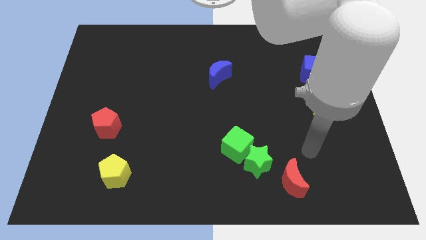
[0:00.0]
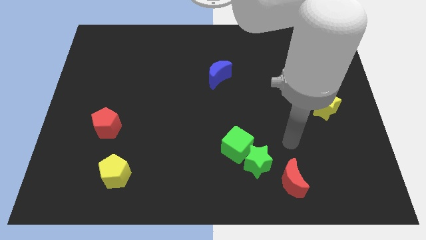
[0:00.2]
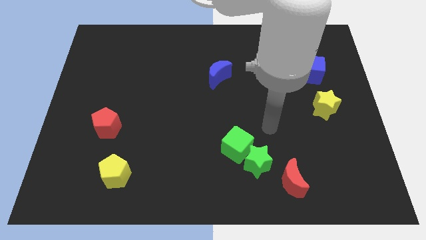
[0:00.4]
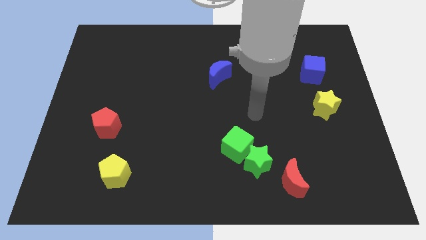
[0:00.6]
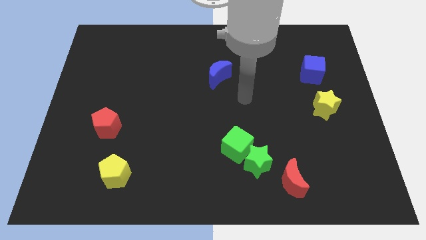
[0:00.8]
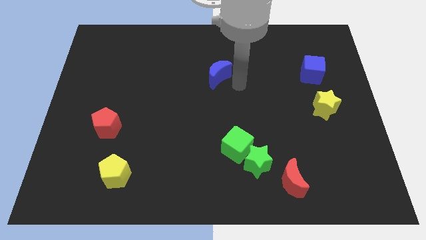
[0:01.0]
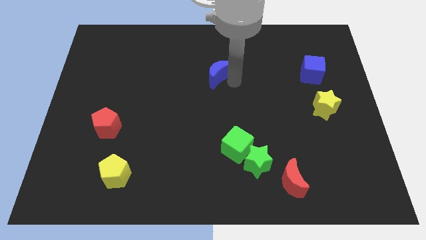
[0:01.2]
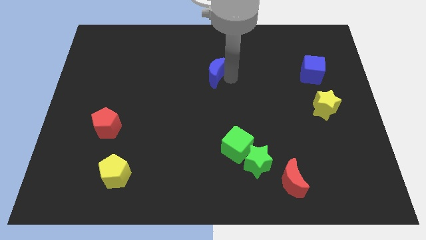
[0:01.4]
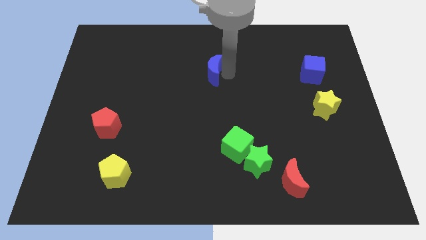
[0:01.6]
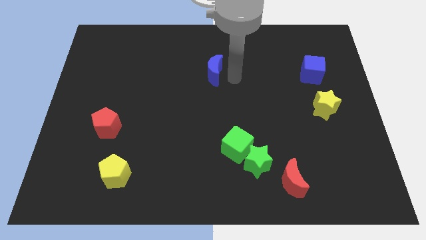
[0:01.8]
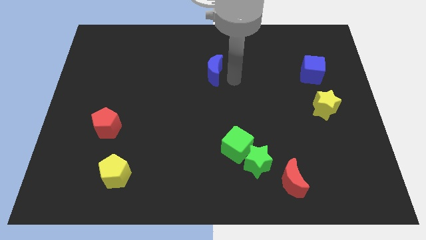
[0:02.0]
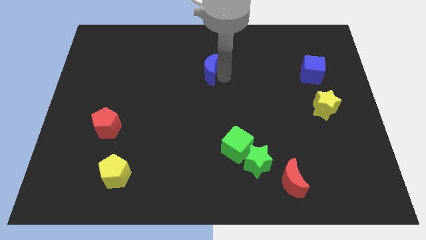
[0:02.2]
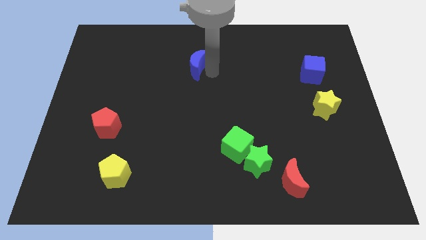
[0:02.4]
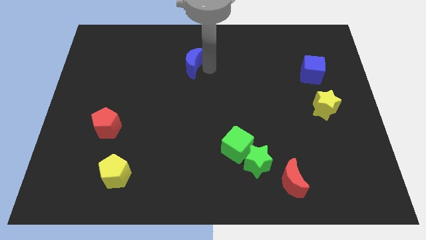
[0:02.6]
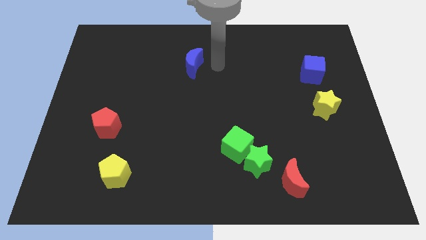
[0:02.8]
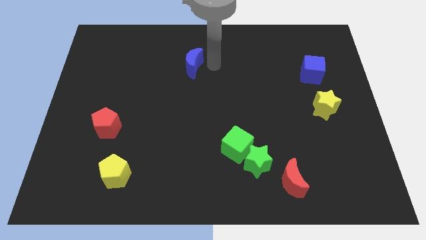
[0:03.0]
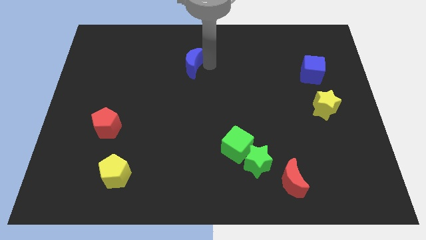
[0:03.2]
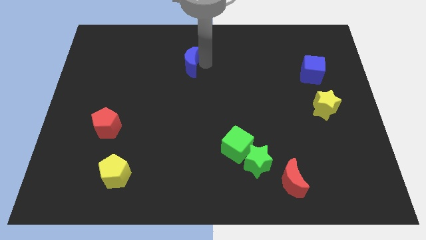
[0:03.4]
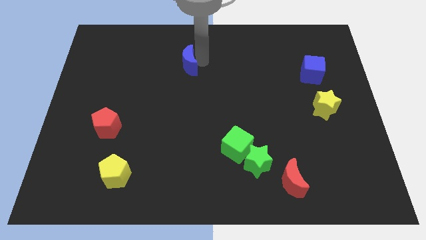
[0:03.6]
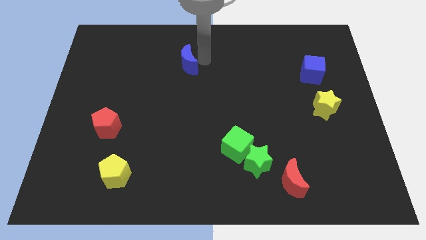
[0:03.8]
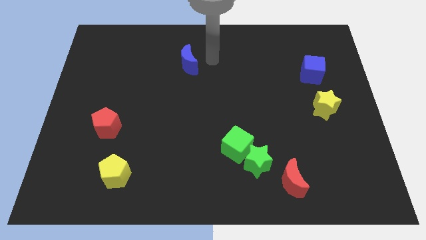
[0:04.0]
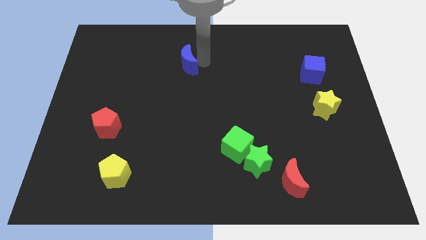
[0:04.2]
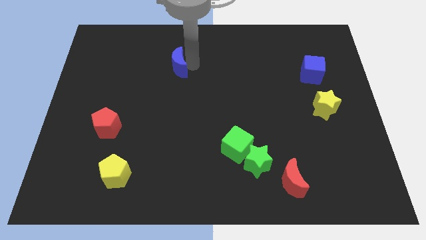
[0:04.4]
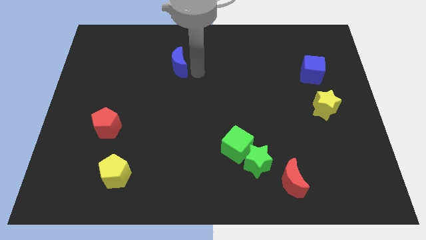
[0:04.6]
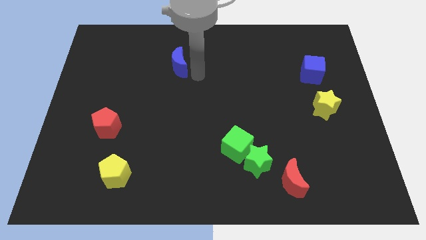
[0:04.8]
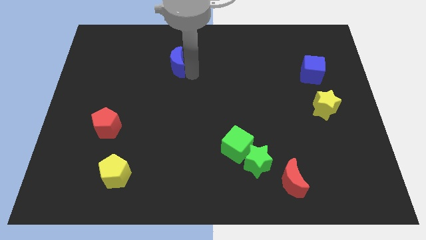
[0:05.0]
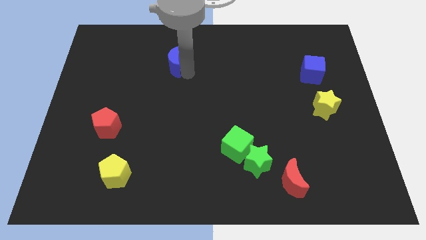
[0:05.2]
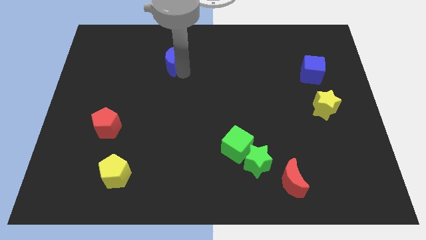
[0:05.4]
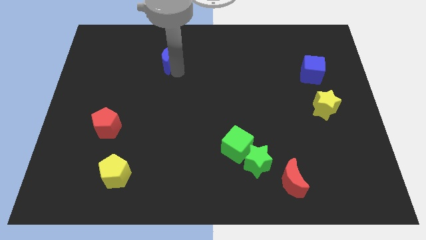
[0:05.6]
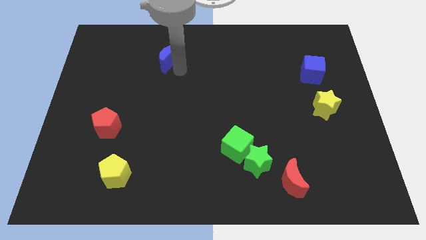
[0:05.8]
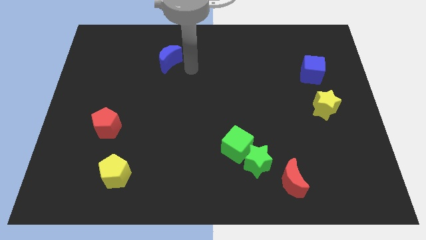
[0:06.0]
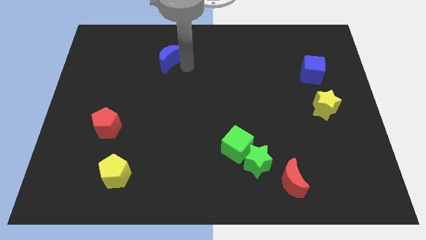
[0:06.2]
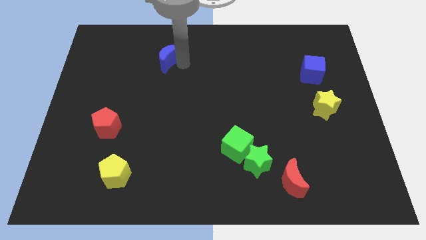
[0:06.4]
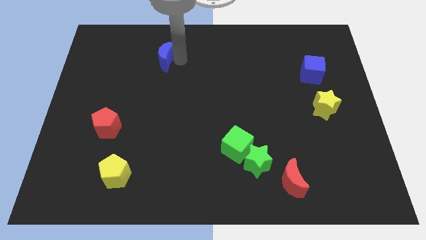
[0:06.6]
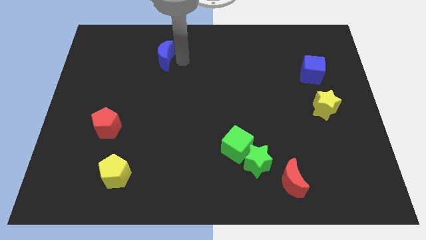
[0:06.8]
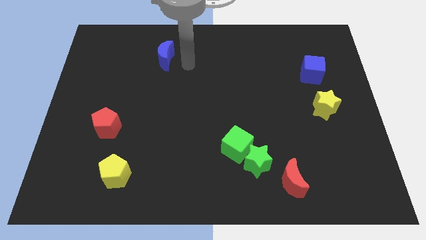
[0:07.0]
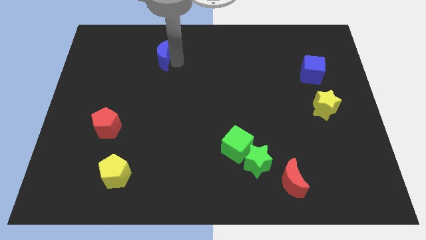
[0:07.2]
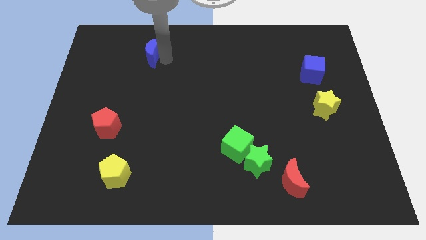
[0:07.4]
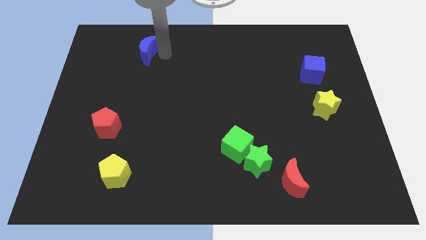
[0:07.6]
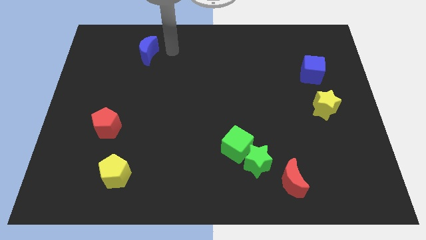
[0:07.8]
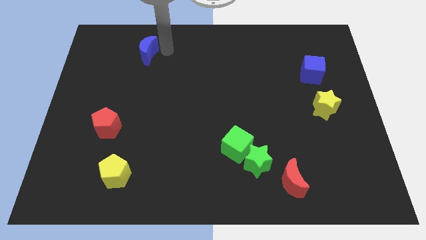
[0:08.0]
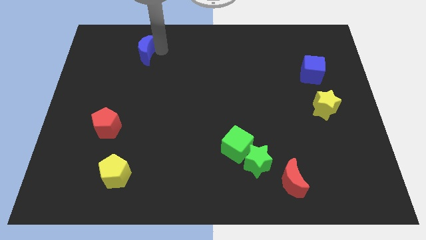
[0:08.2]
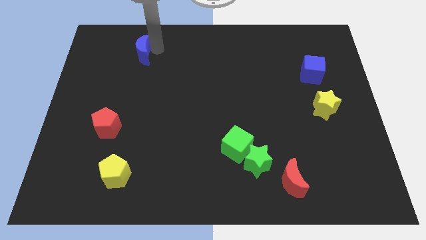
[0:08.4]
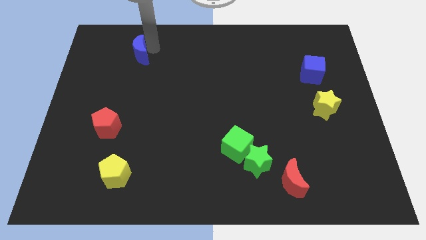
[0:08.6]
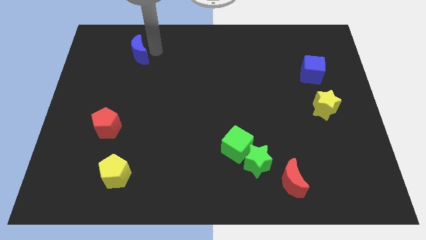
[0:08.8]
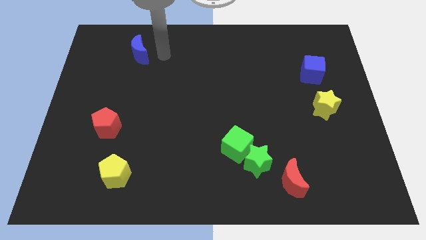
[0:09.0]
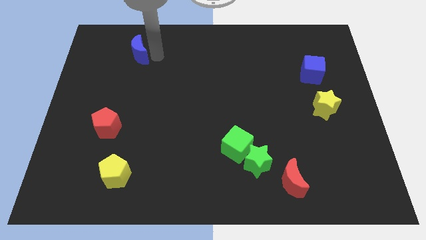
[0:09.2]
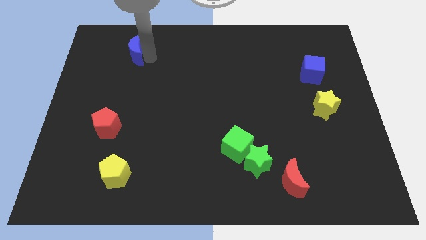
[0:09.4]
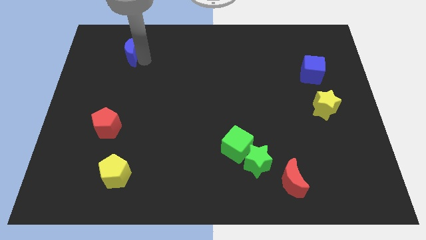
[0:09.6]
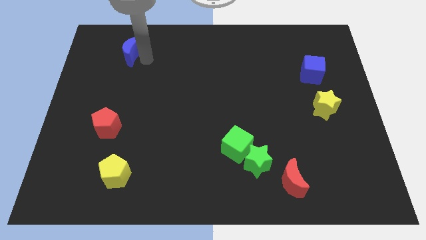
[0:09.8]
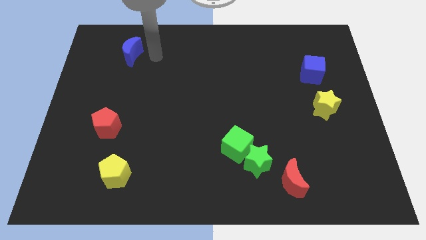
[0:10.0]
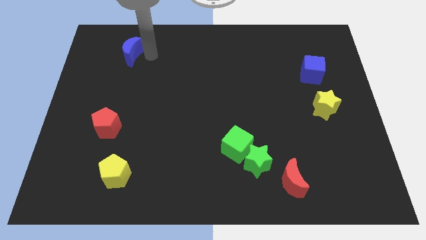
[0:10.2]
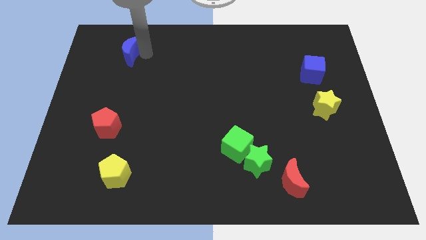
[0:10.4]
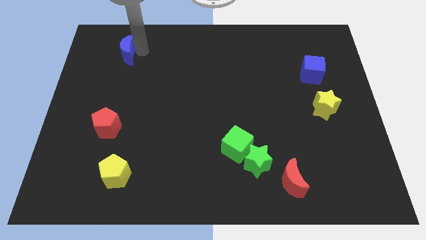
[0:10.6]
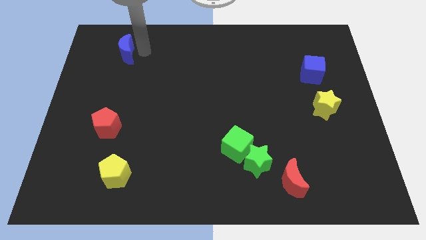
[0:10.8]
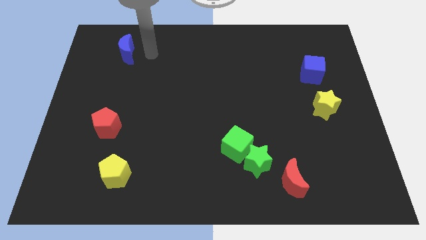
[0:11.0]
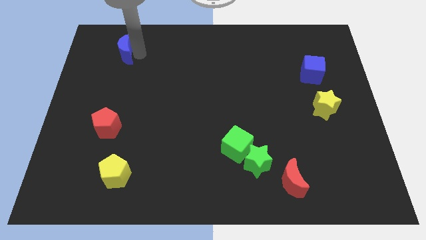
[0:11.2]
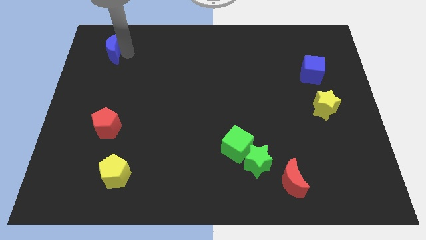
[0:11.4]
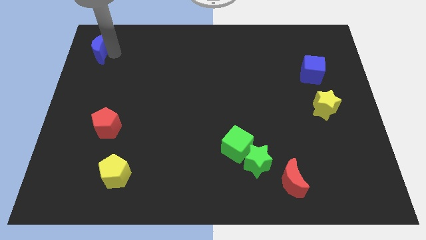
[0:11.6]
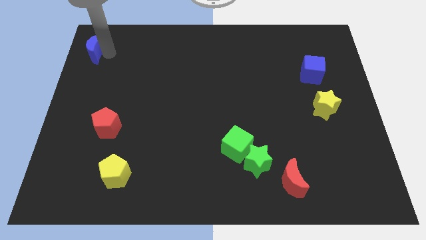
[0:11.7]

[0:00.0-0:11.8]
slide the blue moon to the top left
